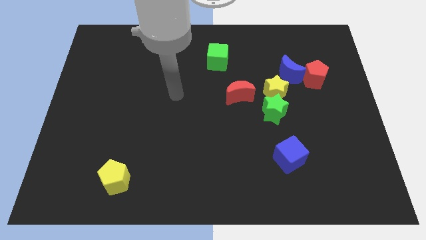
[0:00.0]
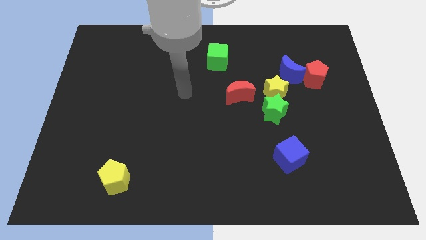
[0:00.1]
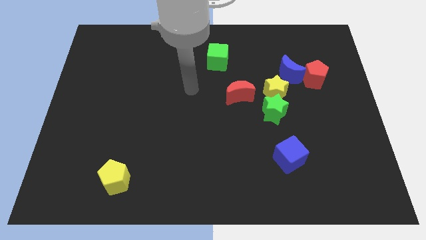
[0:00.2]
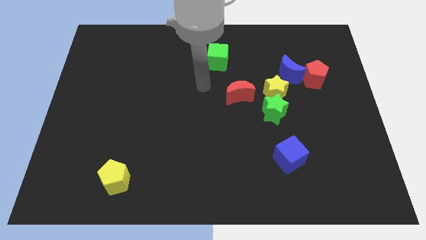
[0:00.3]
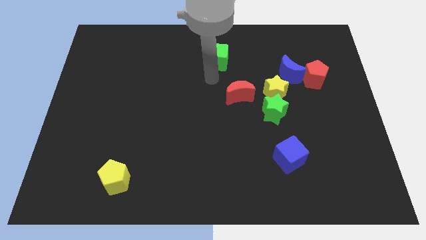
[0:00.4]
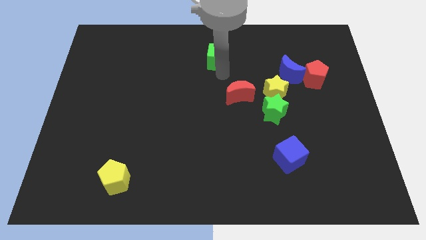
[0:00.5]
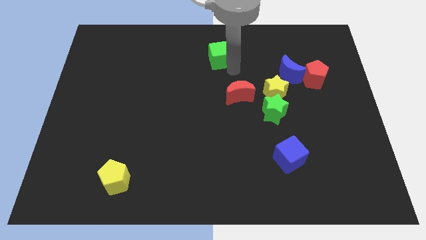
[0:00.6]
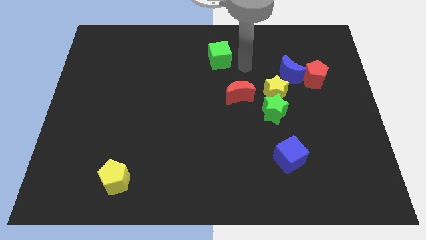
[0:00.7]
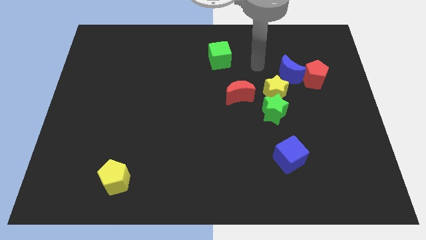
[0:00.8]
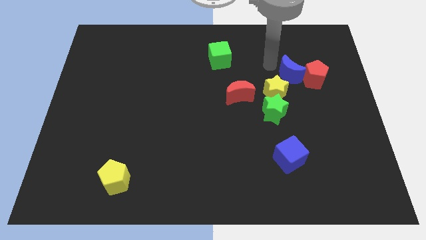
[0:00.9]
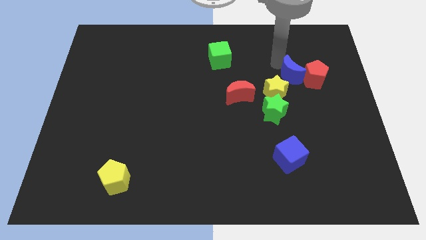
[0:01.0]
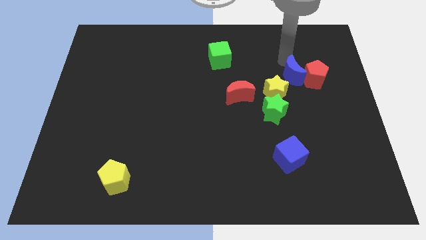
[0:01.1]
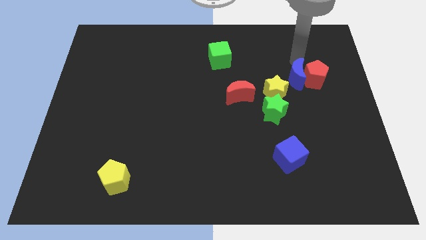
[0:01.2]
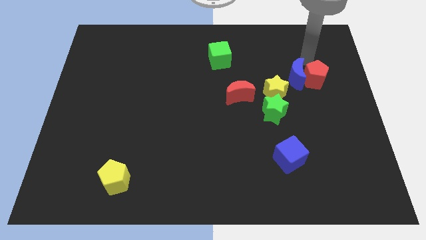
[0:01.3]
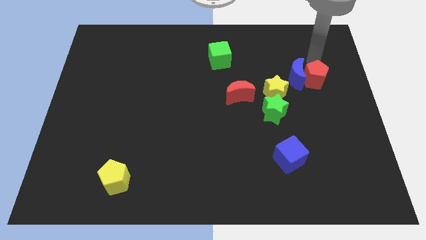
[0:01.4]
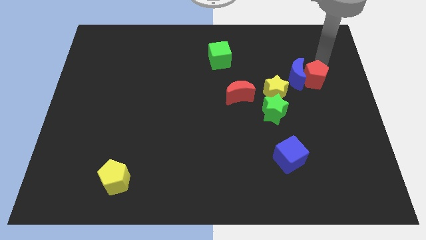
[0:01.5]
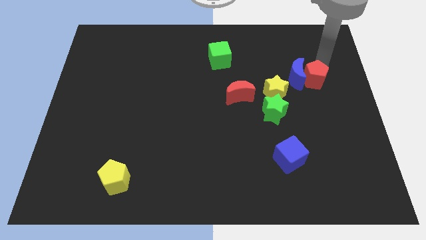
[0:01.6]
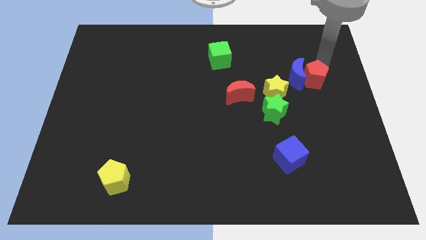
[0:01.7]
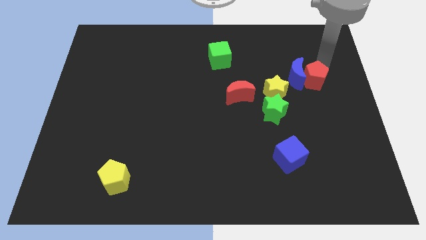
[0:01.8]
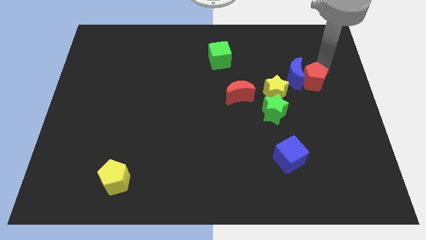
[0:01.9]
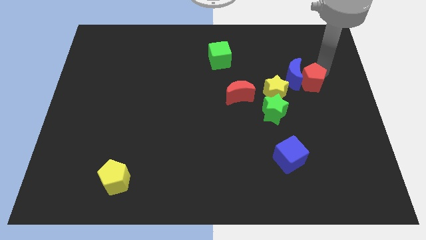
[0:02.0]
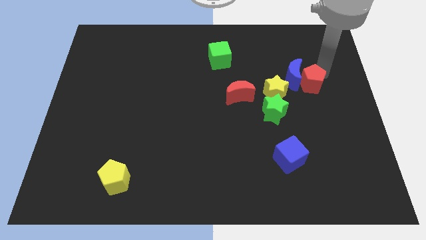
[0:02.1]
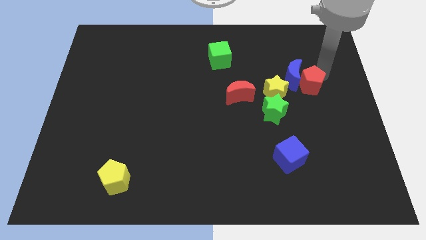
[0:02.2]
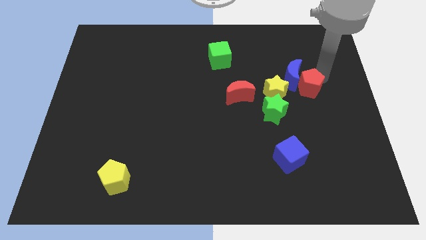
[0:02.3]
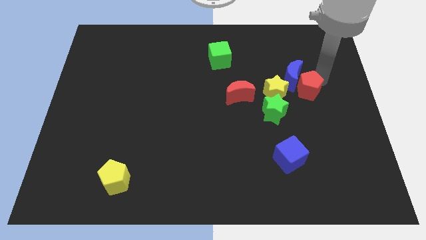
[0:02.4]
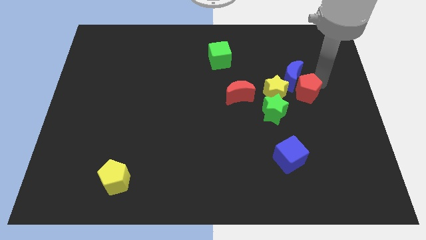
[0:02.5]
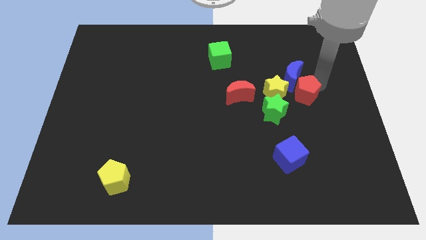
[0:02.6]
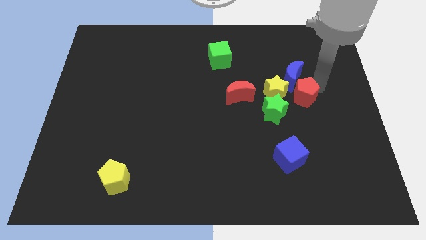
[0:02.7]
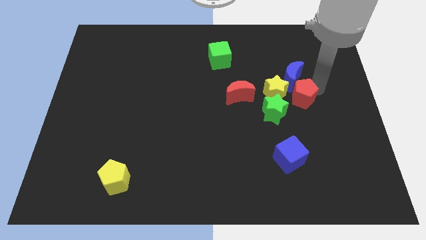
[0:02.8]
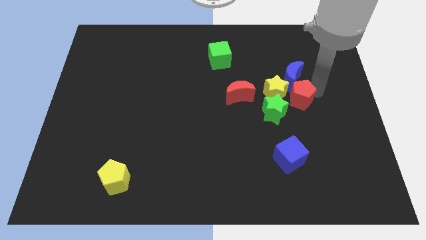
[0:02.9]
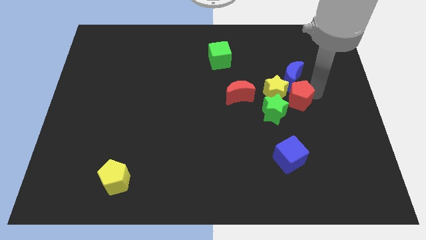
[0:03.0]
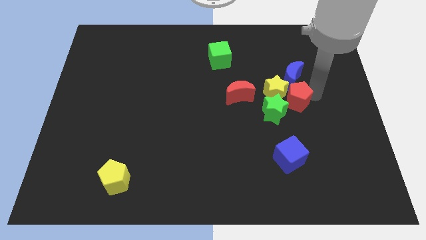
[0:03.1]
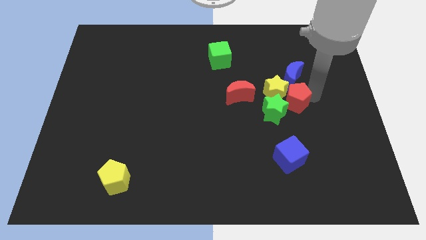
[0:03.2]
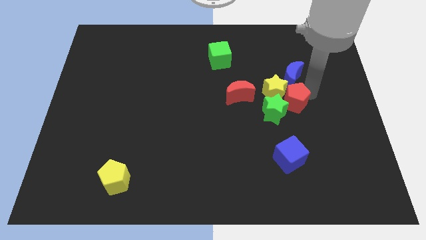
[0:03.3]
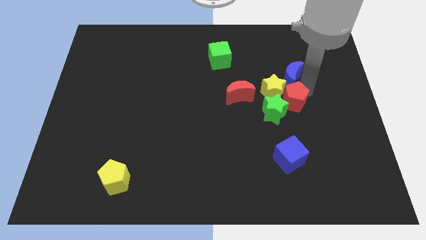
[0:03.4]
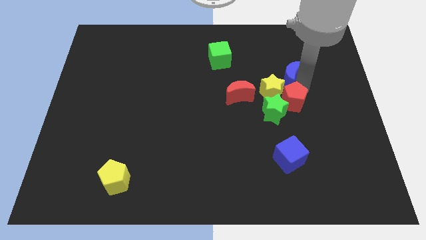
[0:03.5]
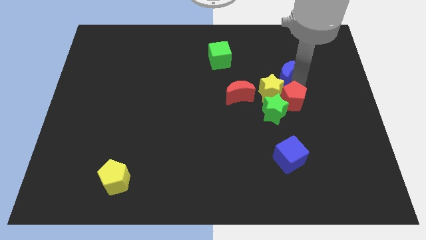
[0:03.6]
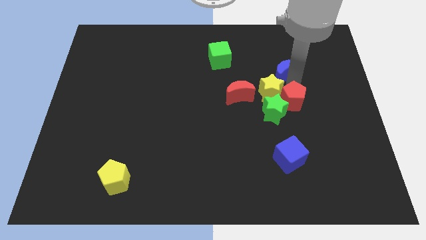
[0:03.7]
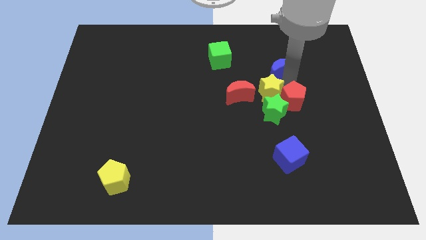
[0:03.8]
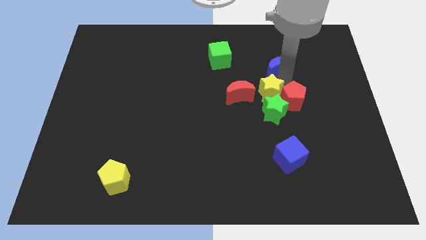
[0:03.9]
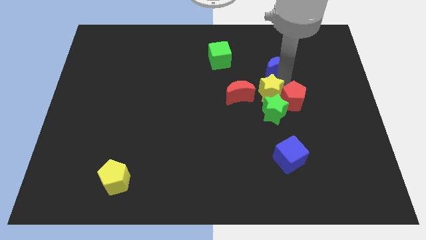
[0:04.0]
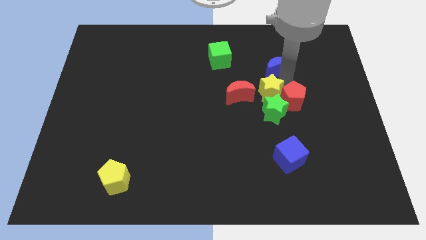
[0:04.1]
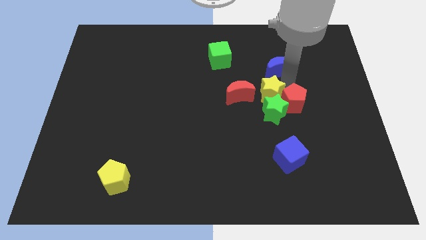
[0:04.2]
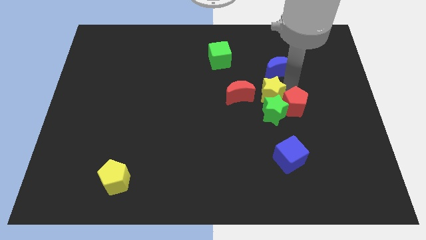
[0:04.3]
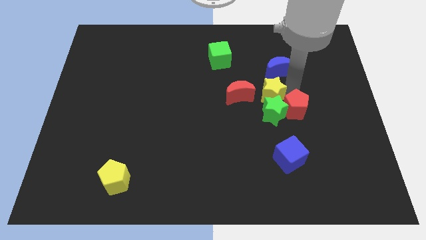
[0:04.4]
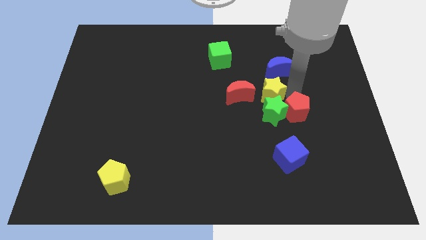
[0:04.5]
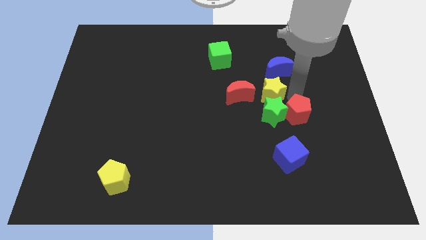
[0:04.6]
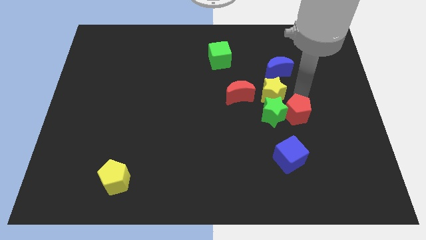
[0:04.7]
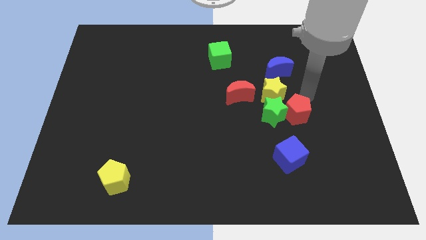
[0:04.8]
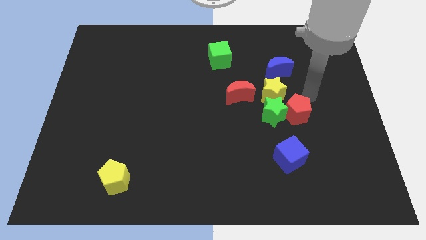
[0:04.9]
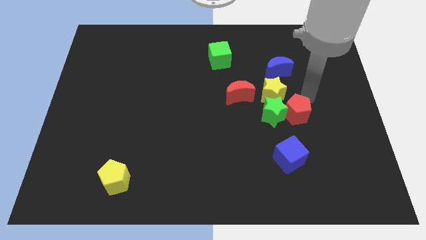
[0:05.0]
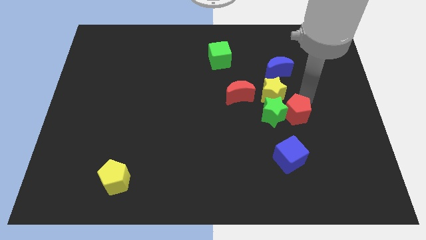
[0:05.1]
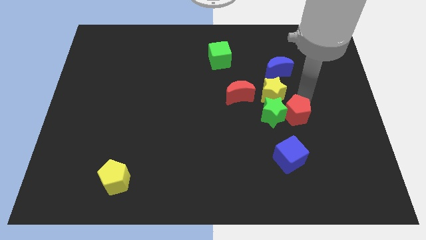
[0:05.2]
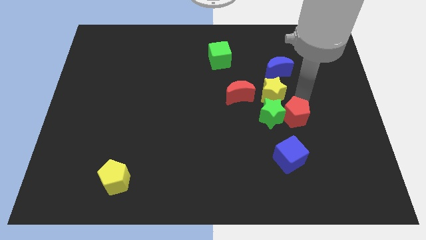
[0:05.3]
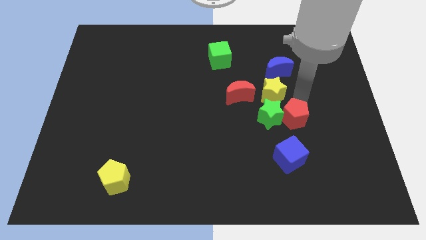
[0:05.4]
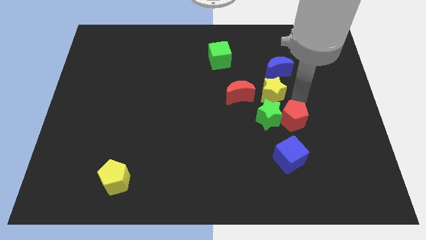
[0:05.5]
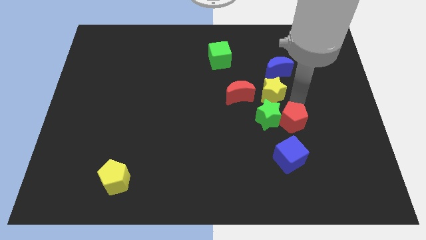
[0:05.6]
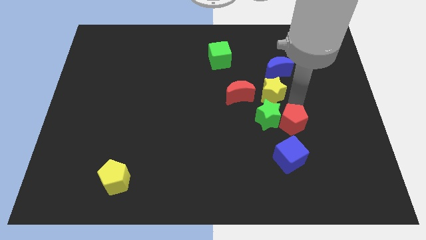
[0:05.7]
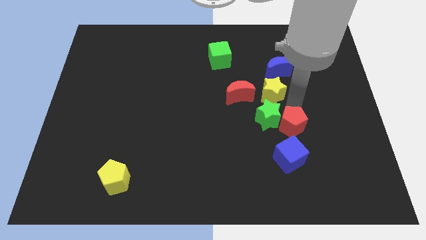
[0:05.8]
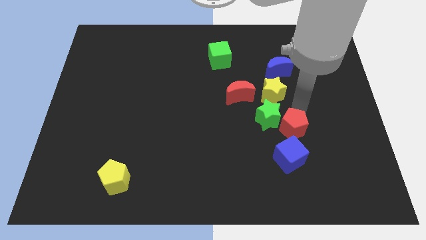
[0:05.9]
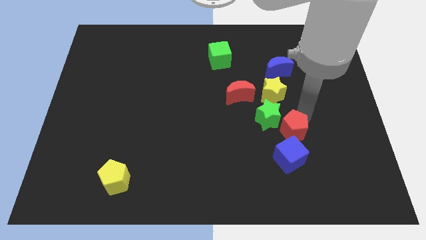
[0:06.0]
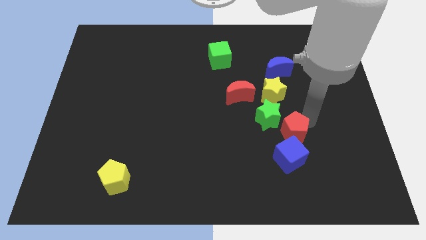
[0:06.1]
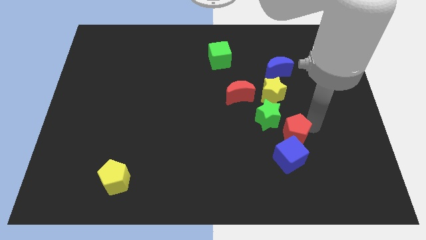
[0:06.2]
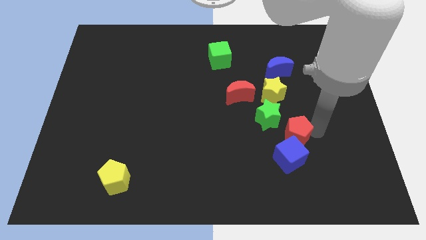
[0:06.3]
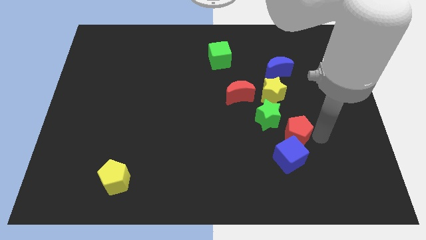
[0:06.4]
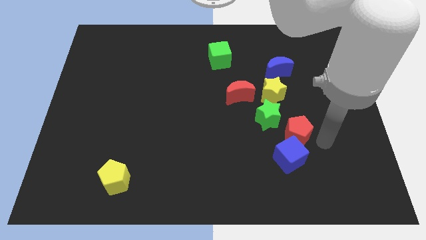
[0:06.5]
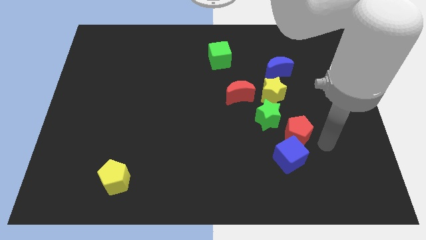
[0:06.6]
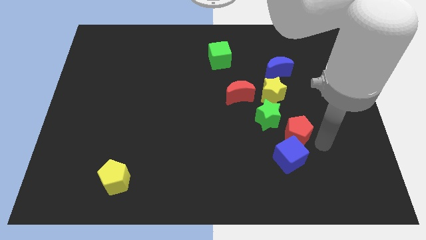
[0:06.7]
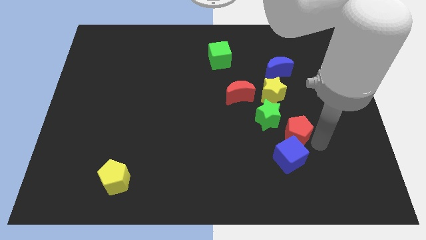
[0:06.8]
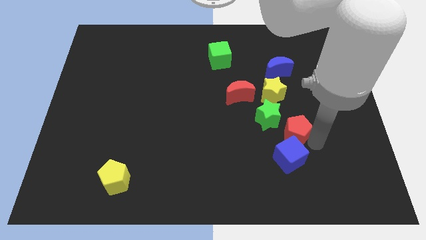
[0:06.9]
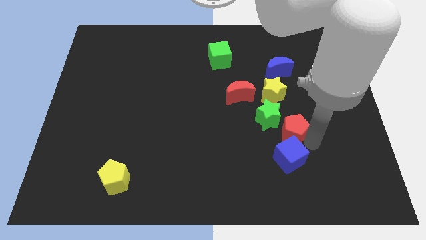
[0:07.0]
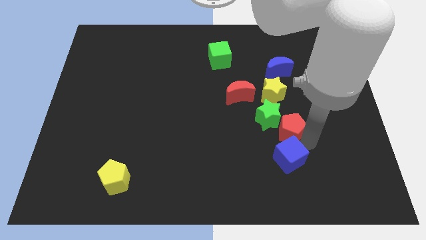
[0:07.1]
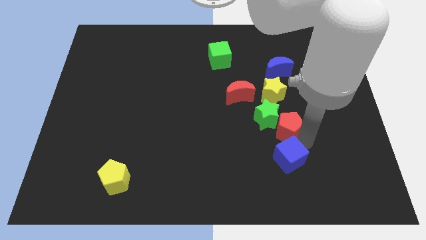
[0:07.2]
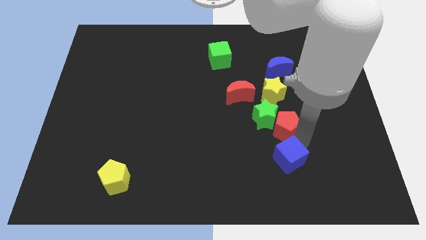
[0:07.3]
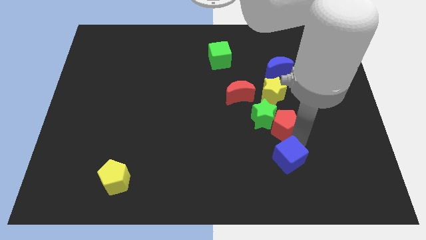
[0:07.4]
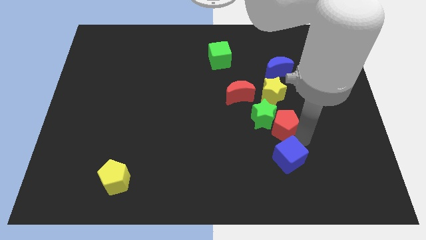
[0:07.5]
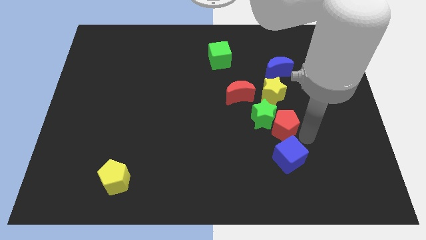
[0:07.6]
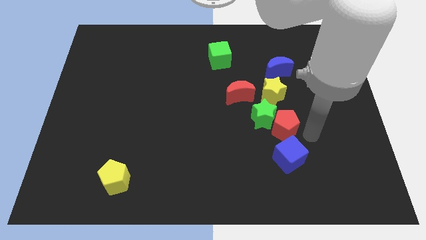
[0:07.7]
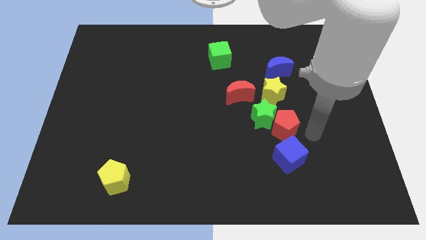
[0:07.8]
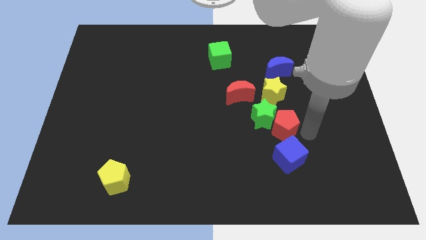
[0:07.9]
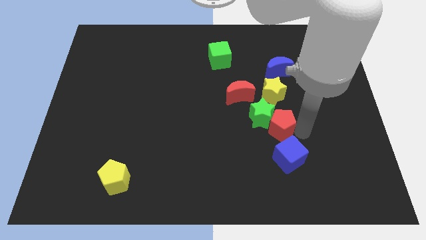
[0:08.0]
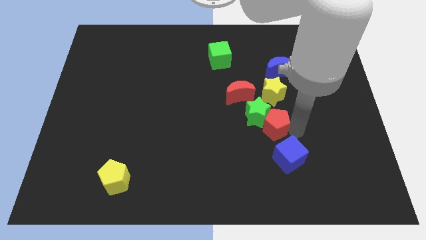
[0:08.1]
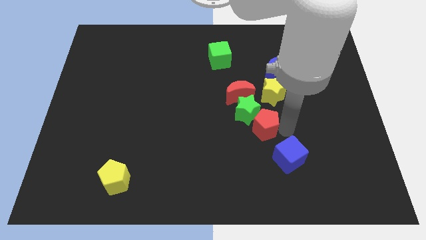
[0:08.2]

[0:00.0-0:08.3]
put the red pentagon to the bottom left of the yellow star
